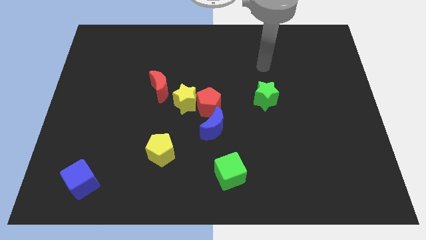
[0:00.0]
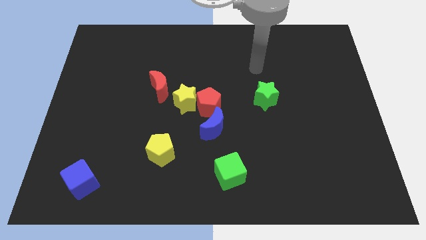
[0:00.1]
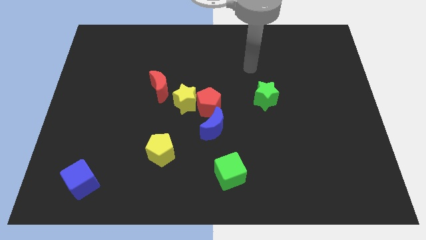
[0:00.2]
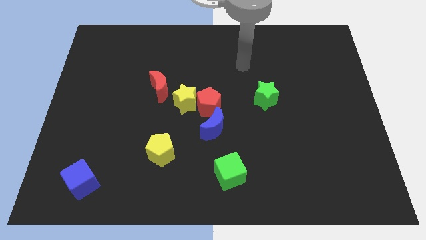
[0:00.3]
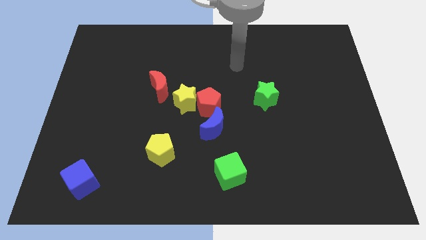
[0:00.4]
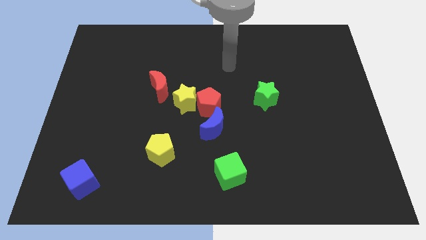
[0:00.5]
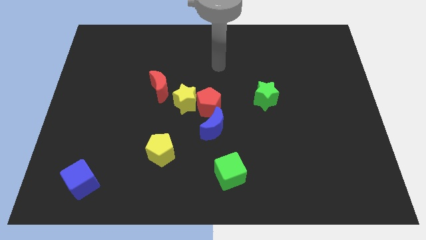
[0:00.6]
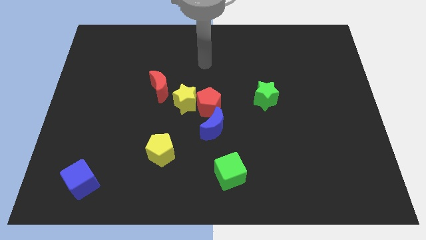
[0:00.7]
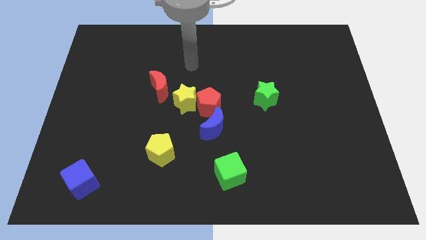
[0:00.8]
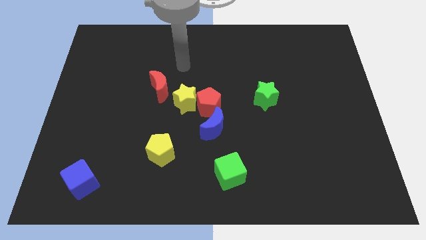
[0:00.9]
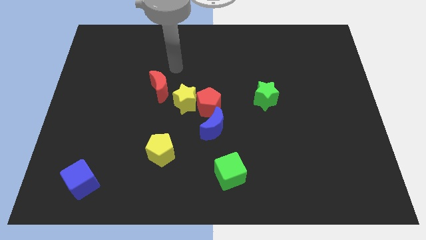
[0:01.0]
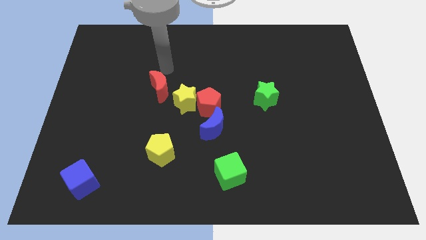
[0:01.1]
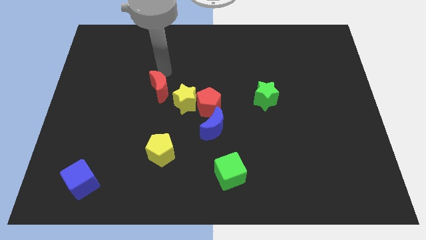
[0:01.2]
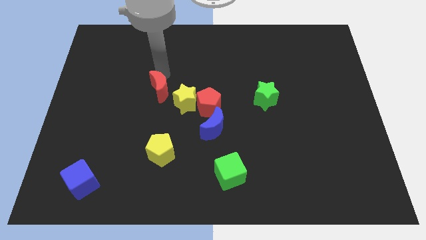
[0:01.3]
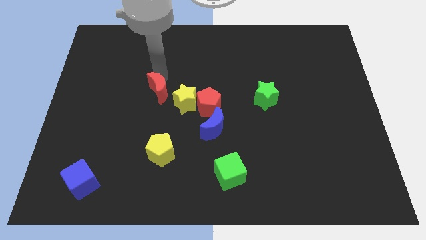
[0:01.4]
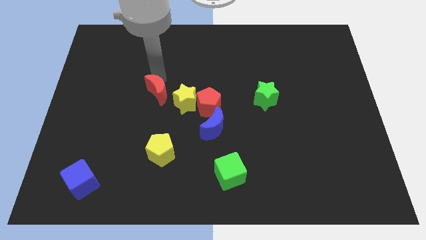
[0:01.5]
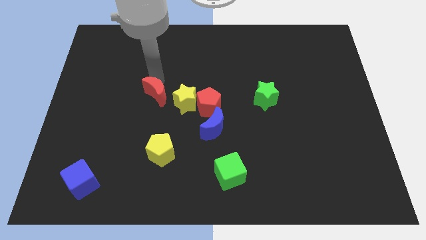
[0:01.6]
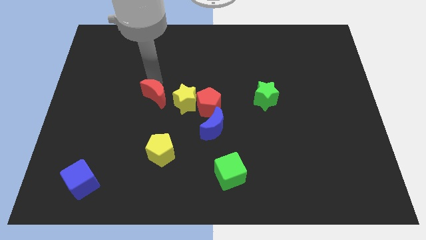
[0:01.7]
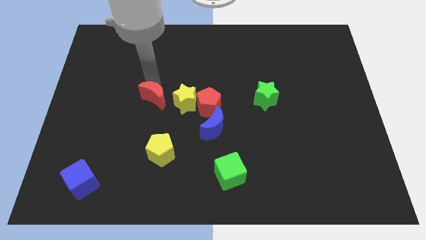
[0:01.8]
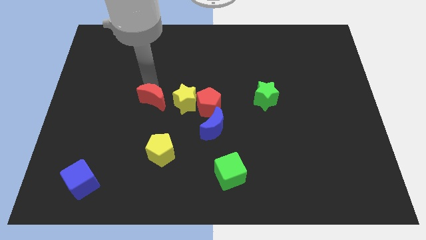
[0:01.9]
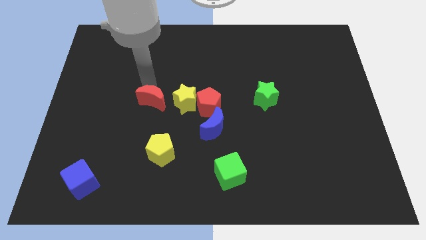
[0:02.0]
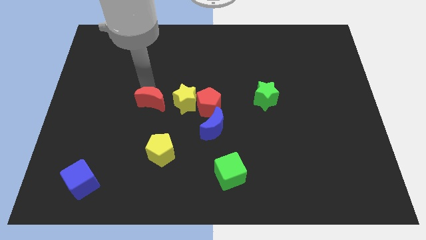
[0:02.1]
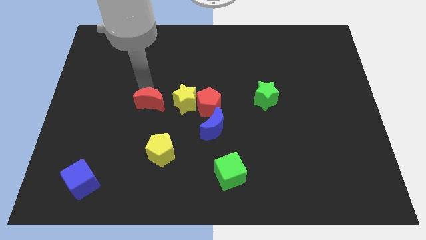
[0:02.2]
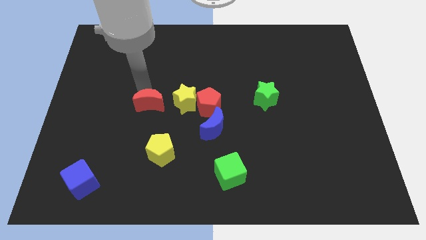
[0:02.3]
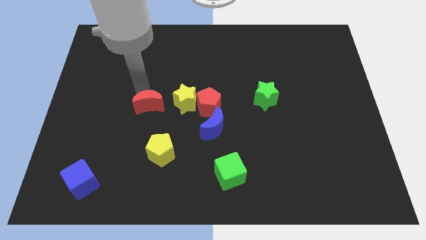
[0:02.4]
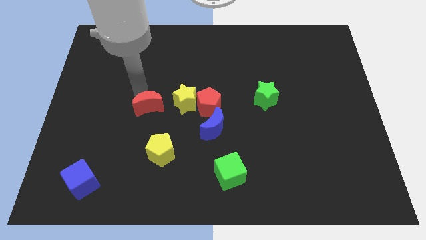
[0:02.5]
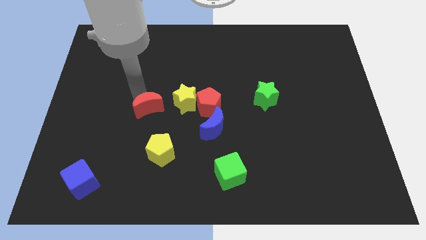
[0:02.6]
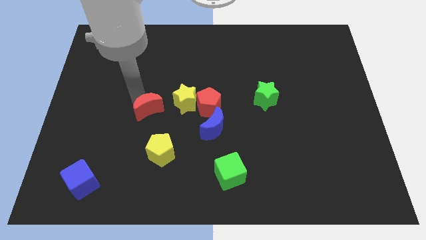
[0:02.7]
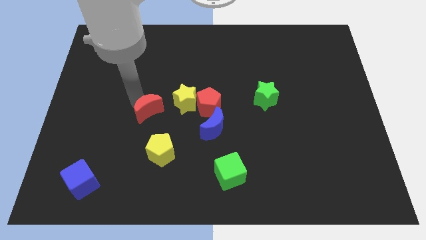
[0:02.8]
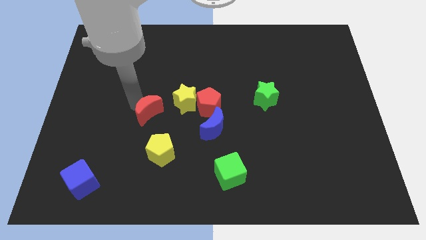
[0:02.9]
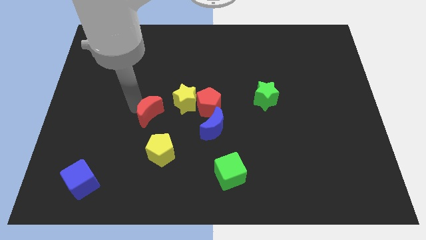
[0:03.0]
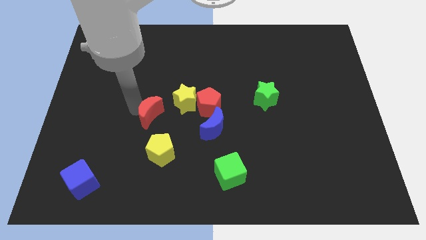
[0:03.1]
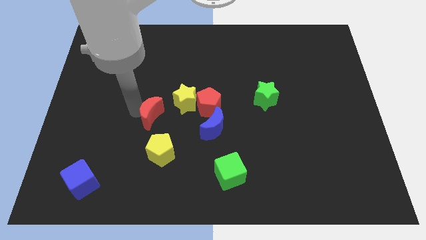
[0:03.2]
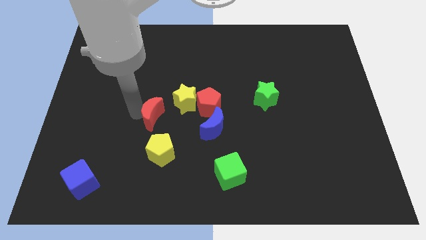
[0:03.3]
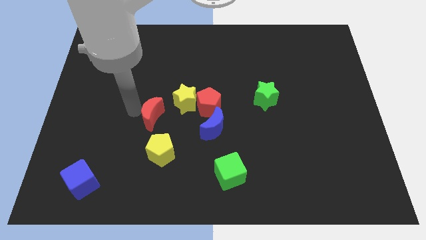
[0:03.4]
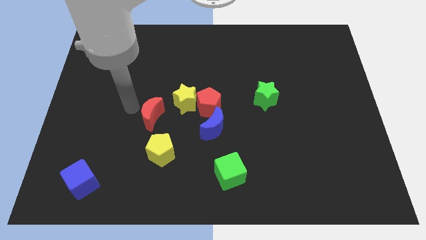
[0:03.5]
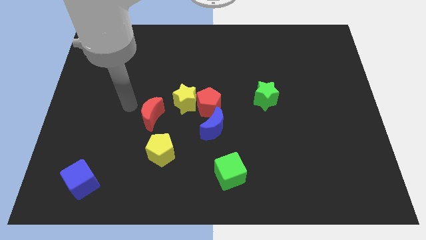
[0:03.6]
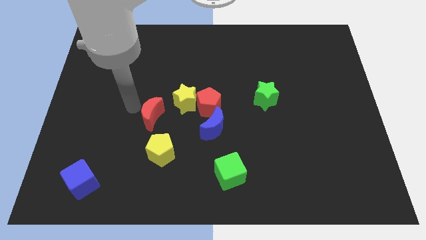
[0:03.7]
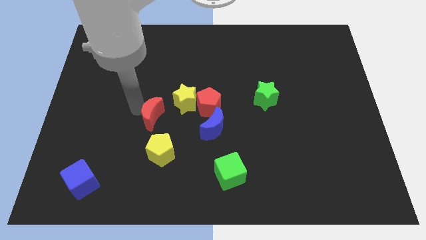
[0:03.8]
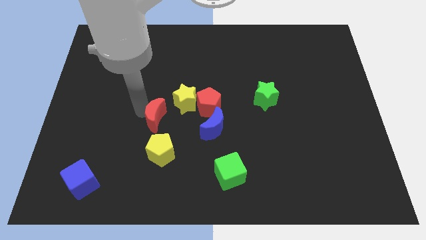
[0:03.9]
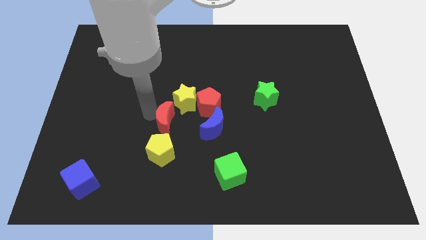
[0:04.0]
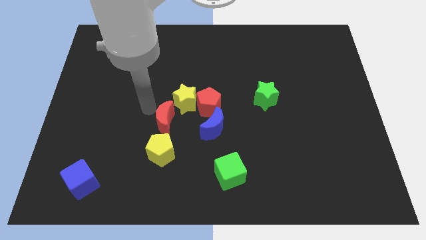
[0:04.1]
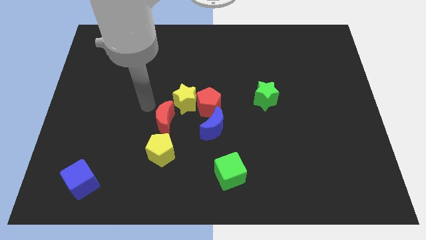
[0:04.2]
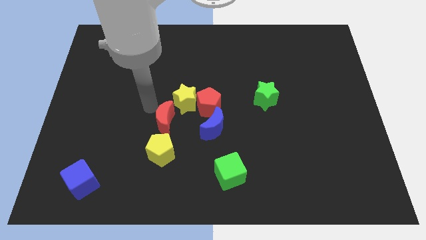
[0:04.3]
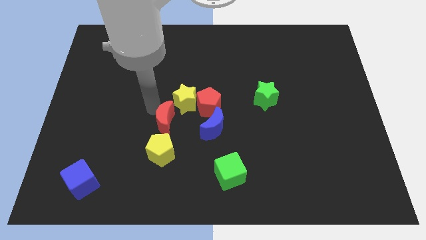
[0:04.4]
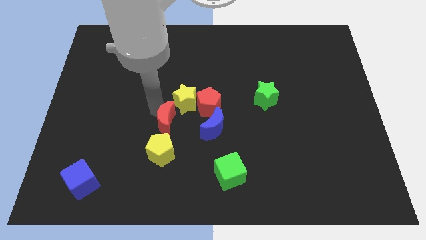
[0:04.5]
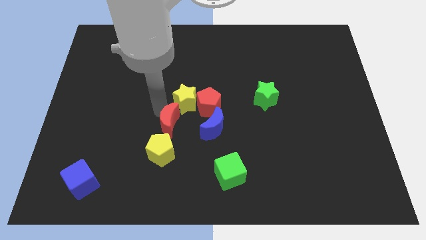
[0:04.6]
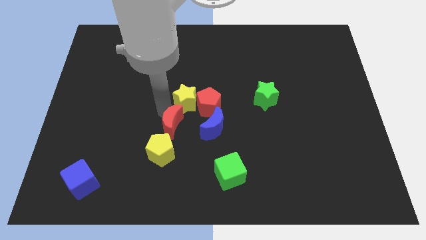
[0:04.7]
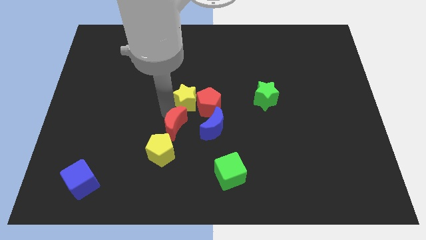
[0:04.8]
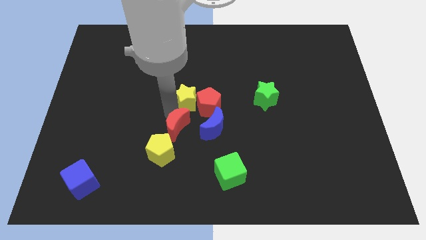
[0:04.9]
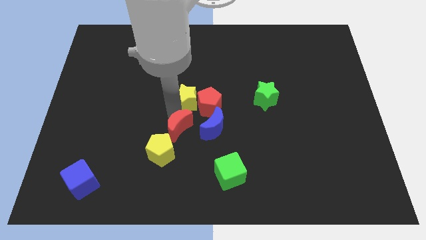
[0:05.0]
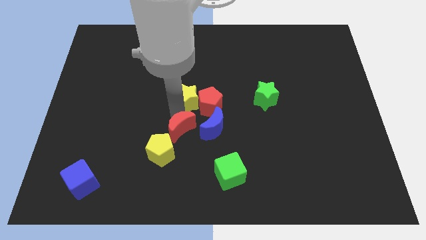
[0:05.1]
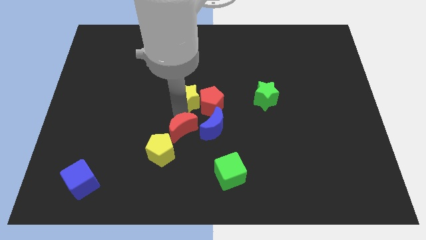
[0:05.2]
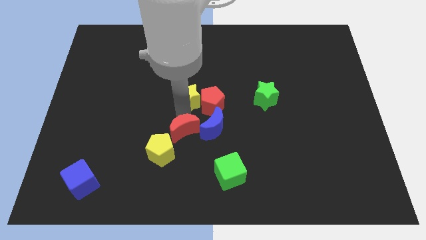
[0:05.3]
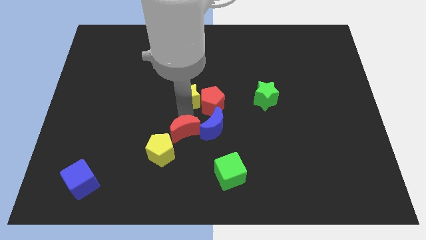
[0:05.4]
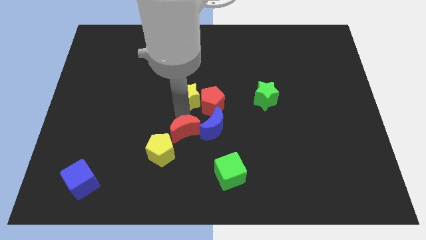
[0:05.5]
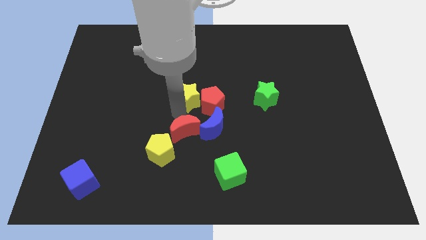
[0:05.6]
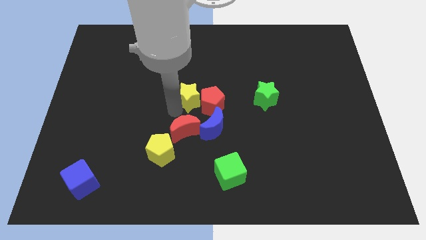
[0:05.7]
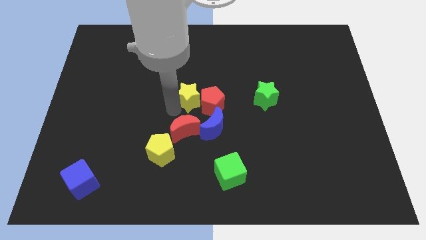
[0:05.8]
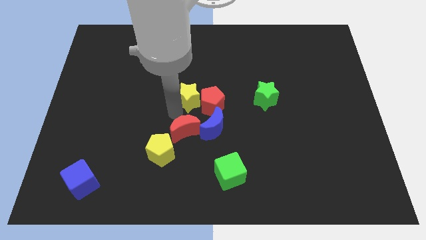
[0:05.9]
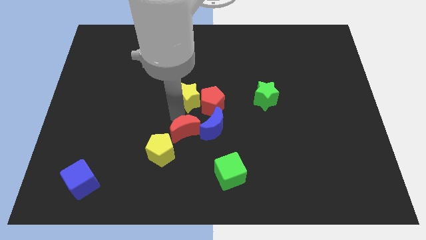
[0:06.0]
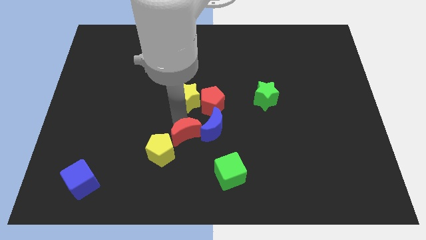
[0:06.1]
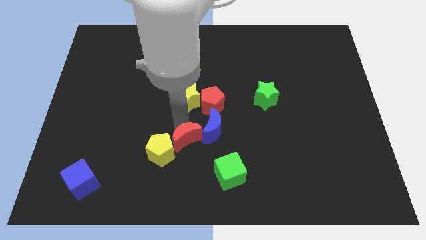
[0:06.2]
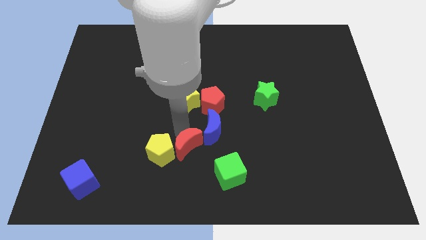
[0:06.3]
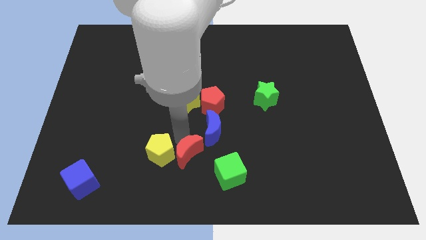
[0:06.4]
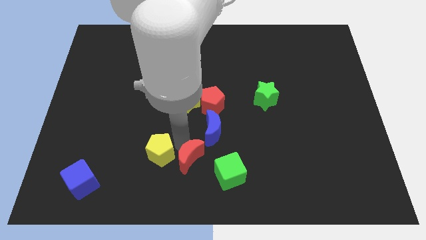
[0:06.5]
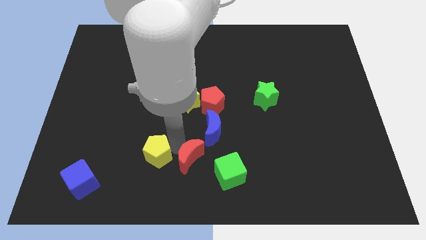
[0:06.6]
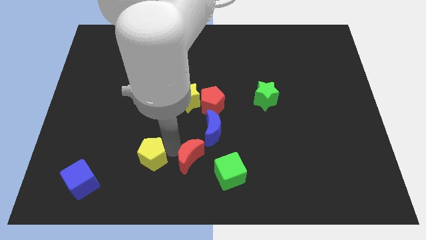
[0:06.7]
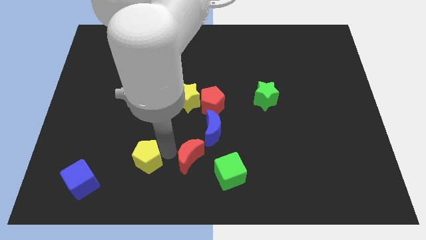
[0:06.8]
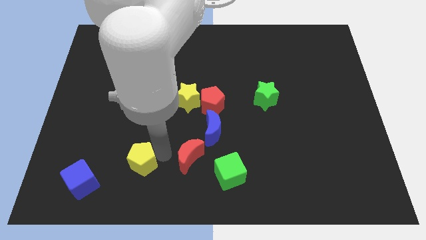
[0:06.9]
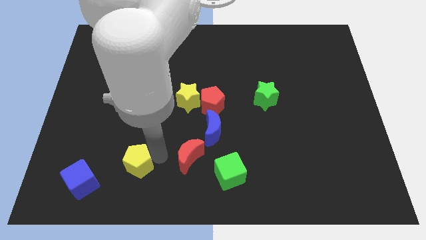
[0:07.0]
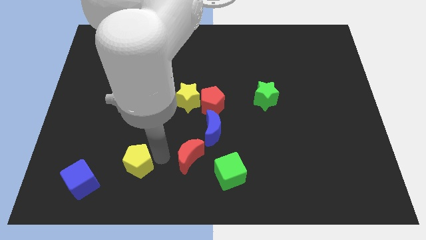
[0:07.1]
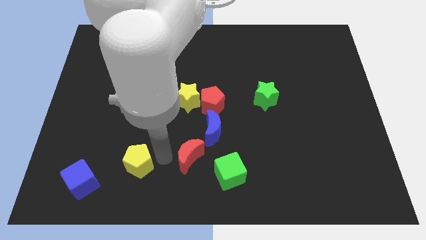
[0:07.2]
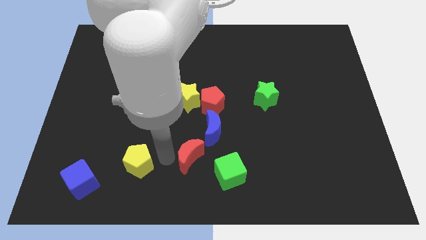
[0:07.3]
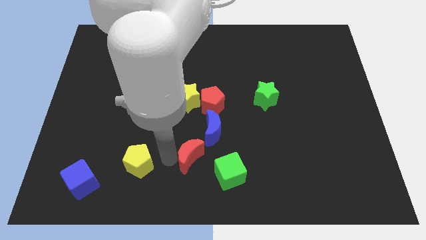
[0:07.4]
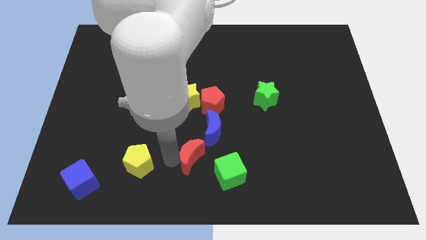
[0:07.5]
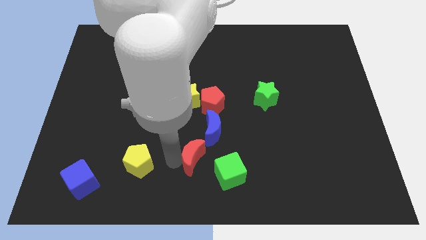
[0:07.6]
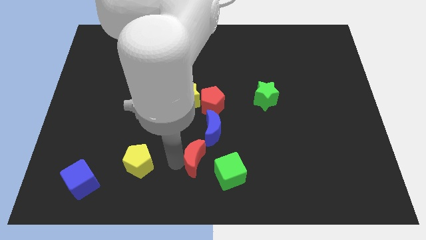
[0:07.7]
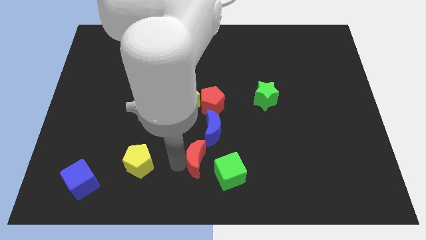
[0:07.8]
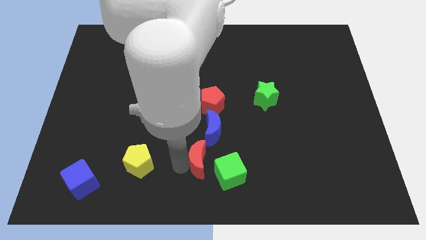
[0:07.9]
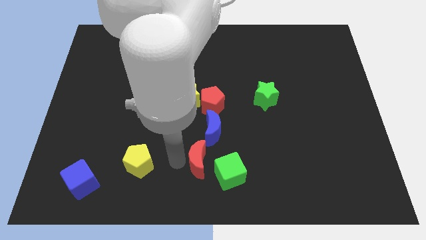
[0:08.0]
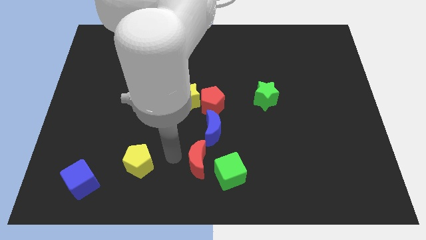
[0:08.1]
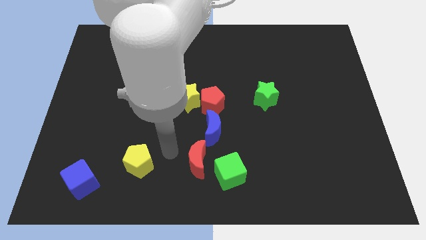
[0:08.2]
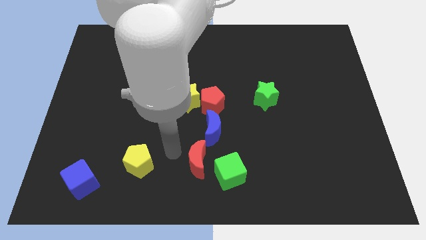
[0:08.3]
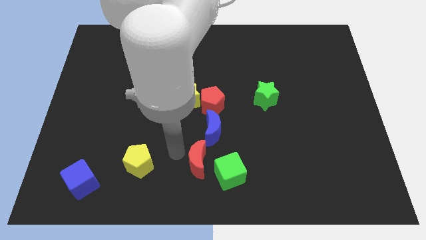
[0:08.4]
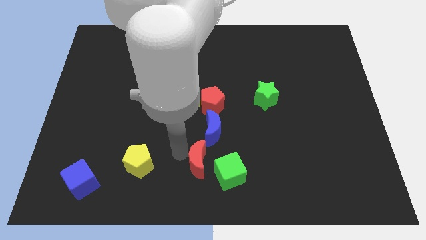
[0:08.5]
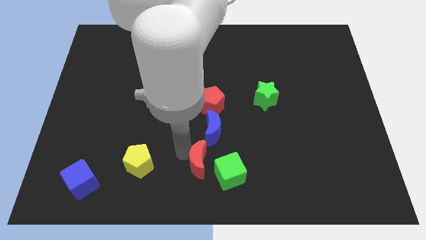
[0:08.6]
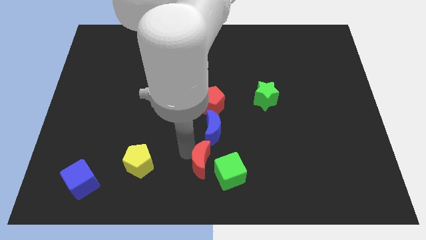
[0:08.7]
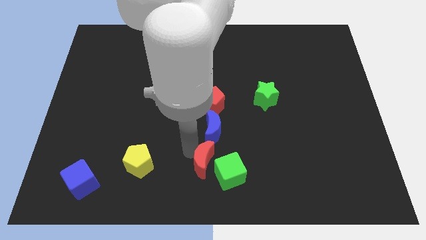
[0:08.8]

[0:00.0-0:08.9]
push the red moon close to the green cube

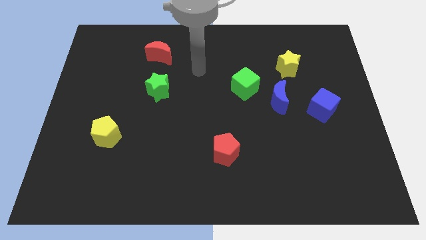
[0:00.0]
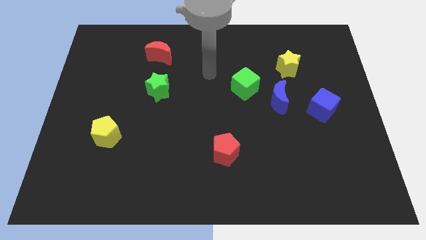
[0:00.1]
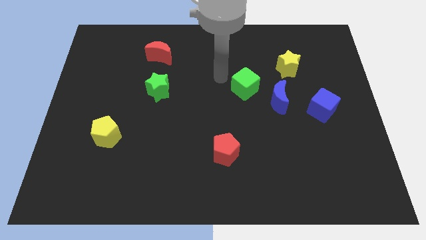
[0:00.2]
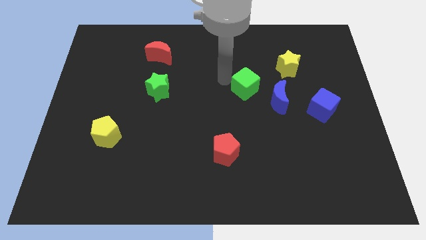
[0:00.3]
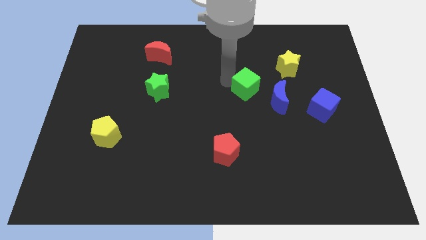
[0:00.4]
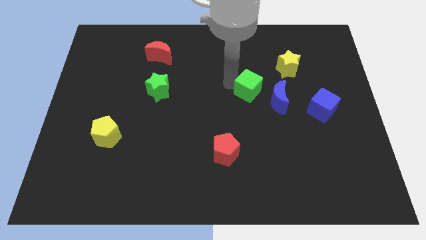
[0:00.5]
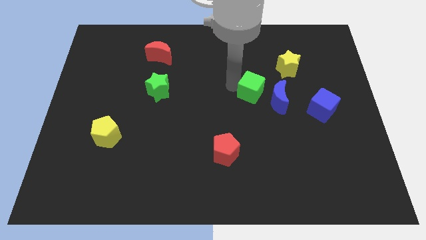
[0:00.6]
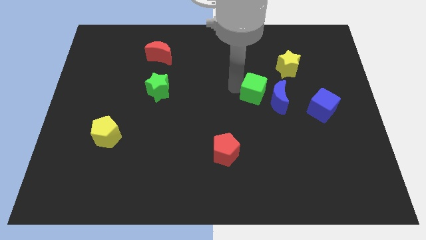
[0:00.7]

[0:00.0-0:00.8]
push the green cube to the blue moon
